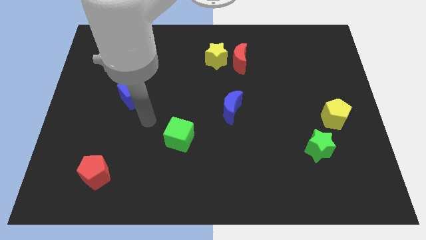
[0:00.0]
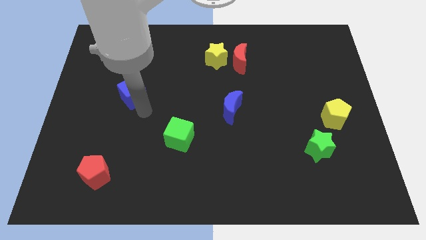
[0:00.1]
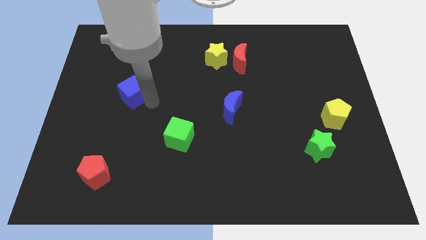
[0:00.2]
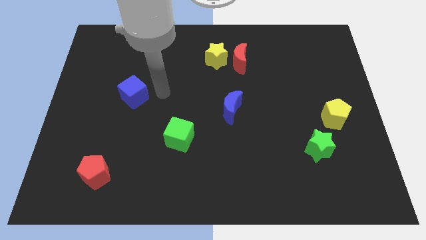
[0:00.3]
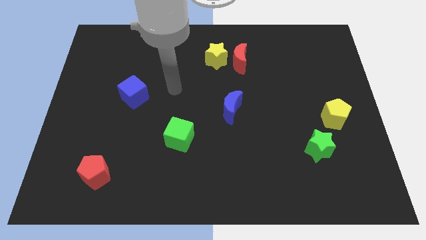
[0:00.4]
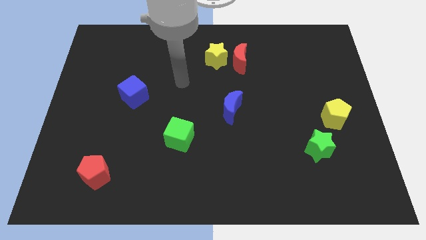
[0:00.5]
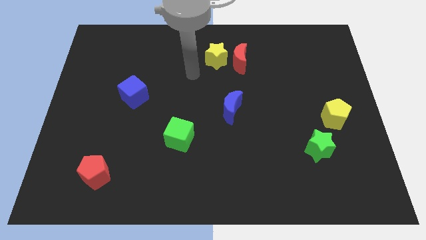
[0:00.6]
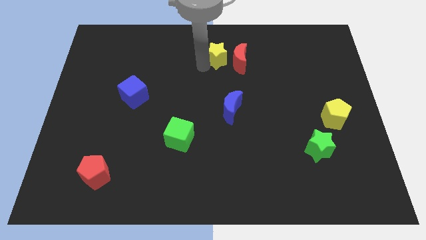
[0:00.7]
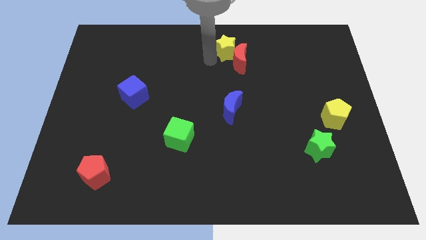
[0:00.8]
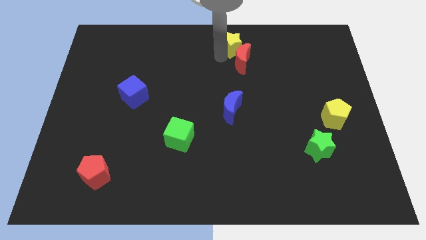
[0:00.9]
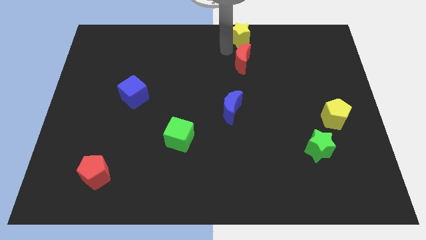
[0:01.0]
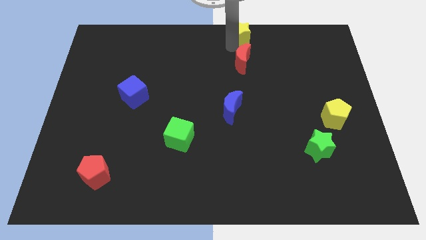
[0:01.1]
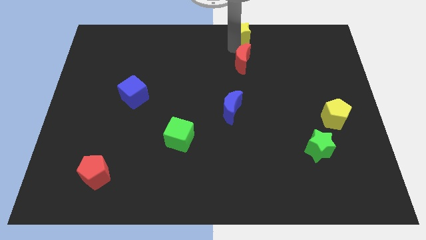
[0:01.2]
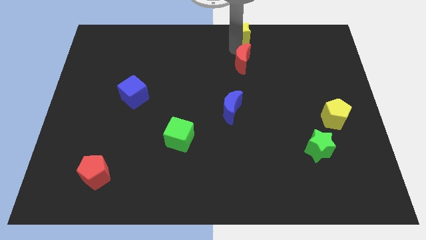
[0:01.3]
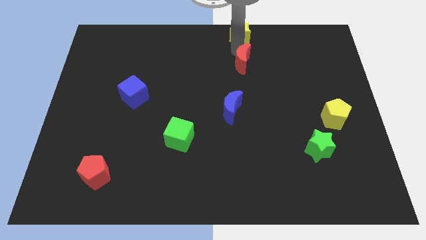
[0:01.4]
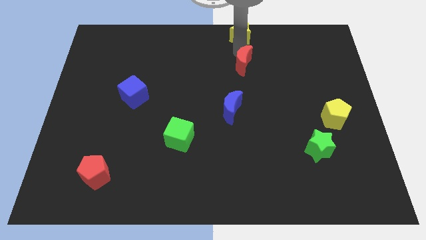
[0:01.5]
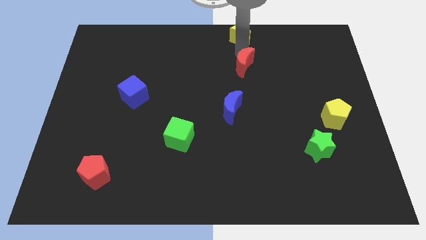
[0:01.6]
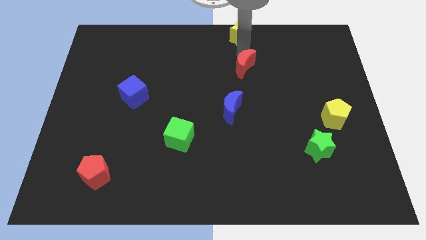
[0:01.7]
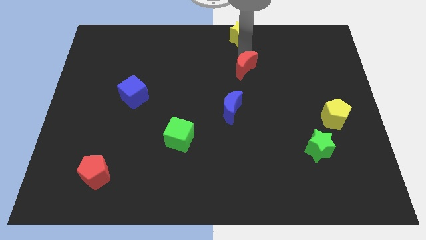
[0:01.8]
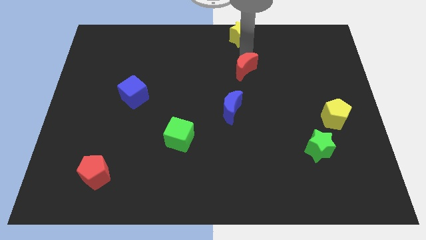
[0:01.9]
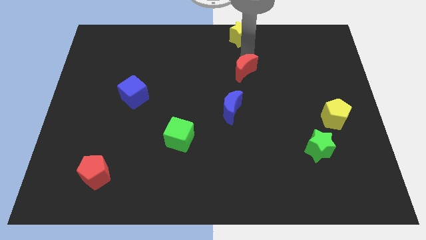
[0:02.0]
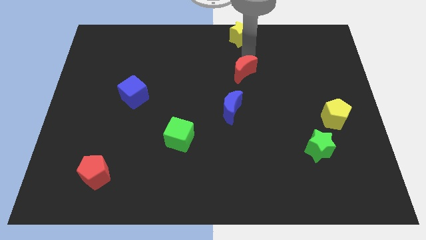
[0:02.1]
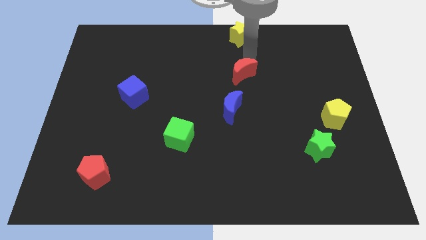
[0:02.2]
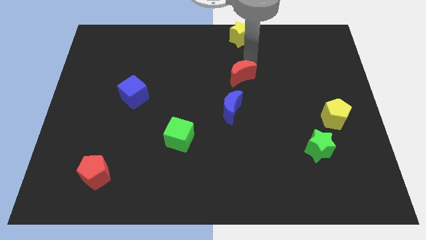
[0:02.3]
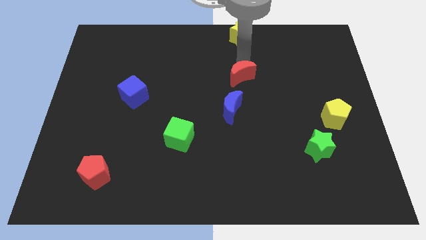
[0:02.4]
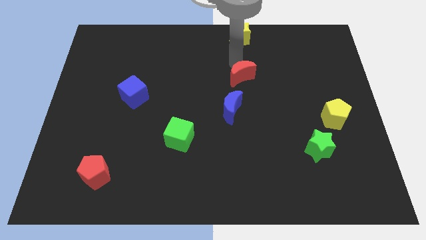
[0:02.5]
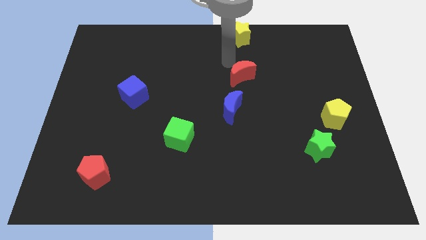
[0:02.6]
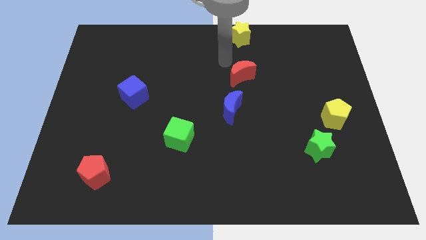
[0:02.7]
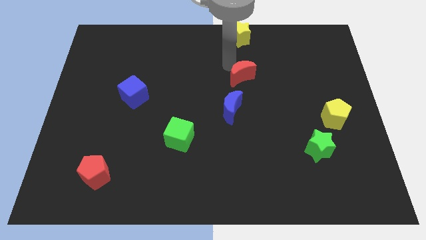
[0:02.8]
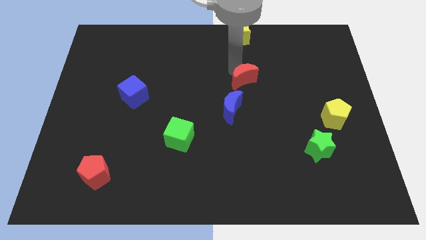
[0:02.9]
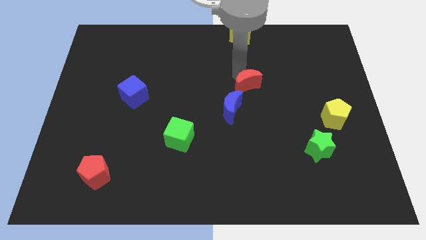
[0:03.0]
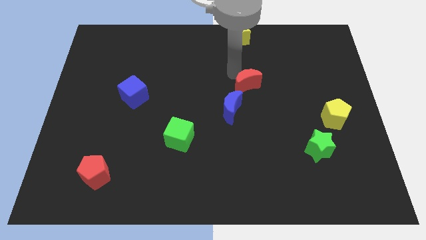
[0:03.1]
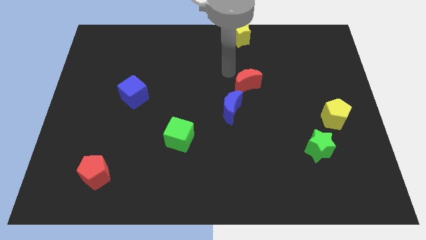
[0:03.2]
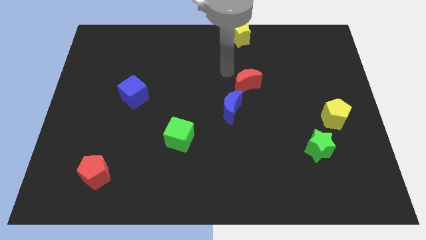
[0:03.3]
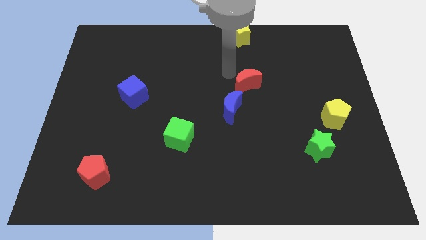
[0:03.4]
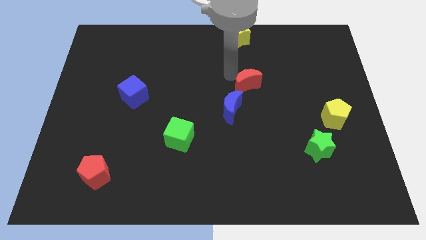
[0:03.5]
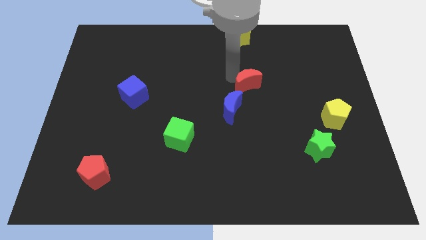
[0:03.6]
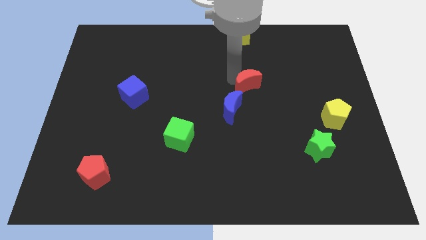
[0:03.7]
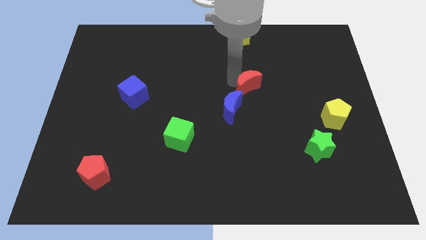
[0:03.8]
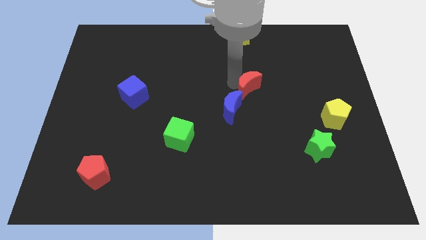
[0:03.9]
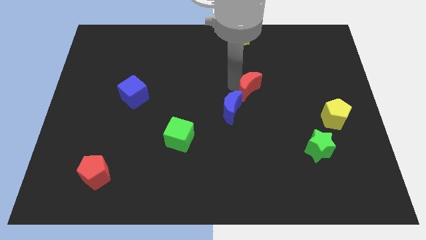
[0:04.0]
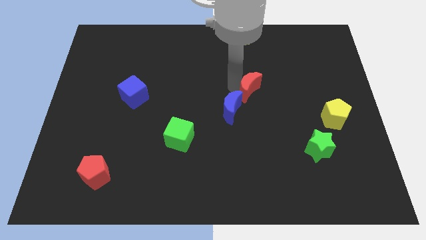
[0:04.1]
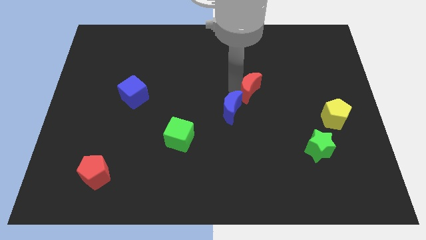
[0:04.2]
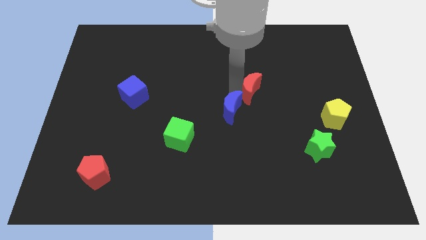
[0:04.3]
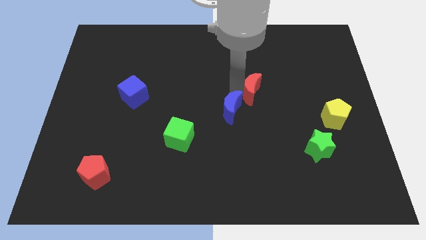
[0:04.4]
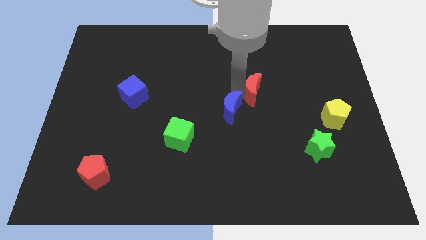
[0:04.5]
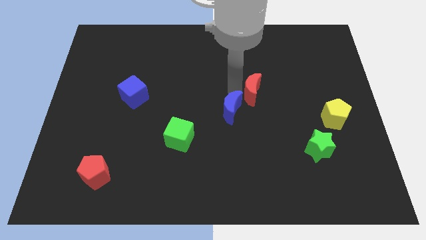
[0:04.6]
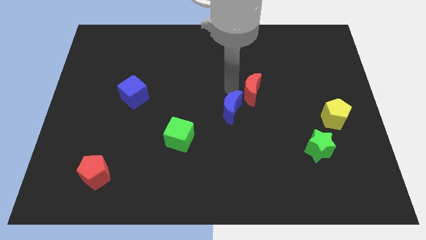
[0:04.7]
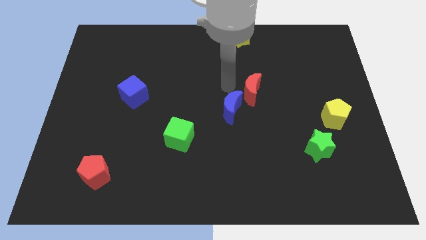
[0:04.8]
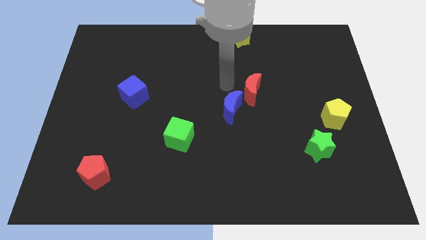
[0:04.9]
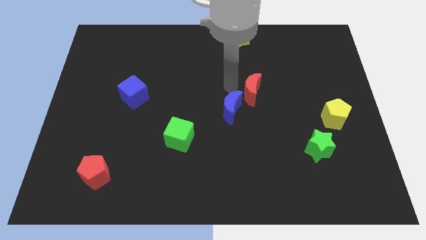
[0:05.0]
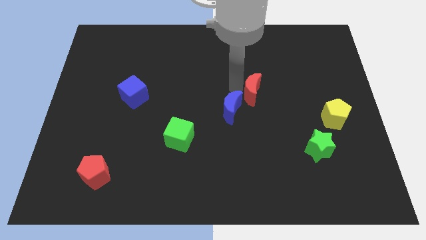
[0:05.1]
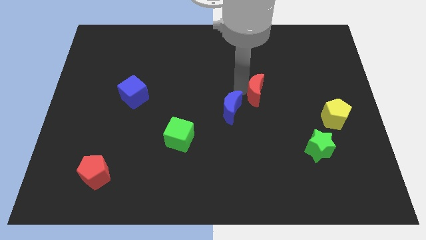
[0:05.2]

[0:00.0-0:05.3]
move the red moon right of the blue moon

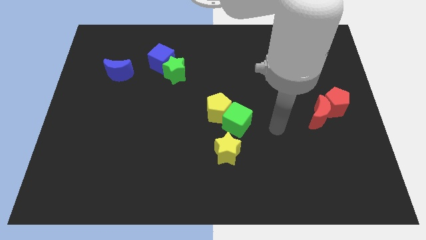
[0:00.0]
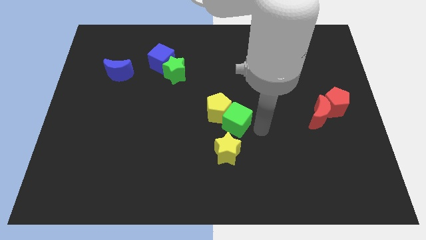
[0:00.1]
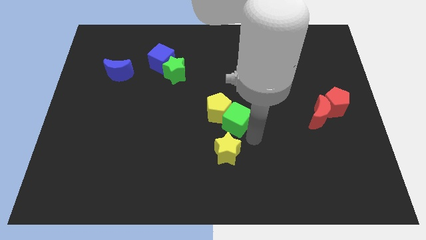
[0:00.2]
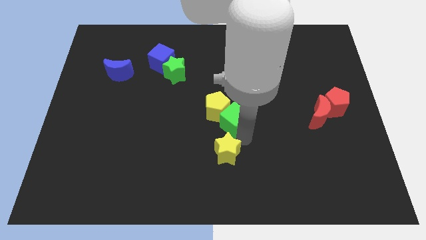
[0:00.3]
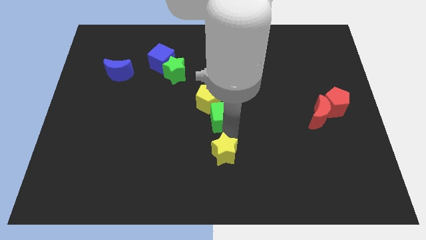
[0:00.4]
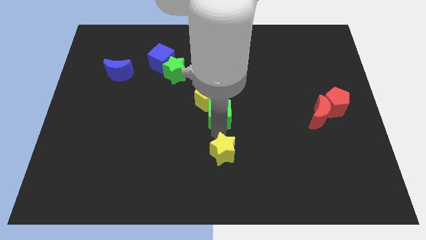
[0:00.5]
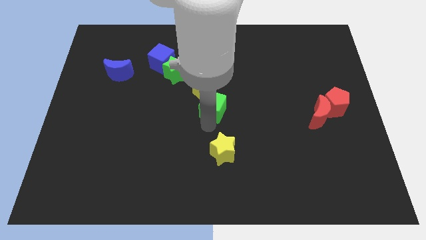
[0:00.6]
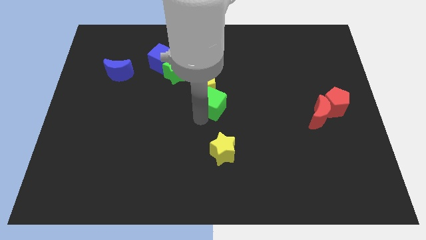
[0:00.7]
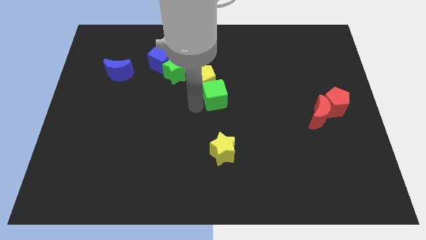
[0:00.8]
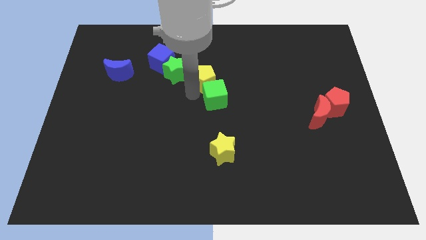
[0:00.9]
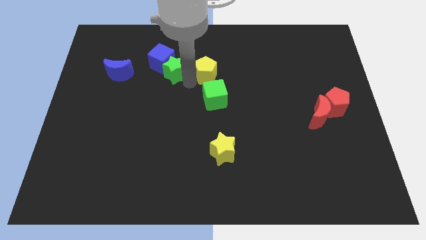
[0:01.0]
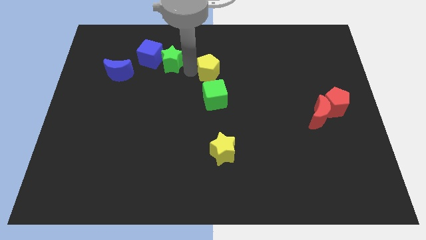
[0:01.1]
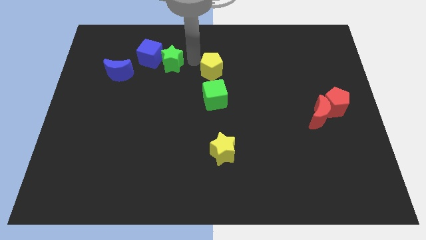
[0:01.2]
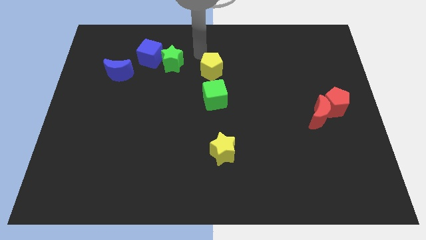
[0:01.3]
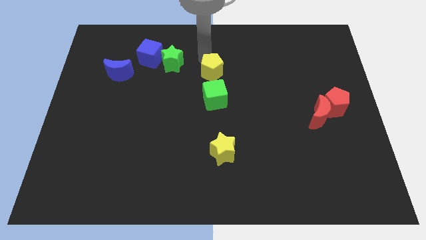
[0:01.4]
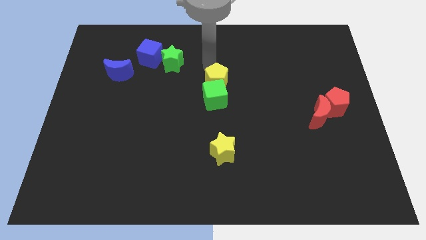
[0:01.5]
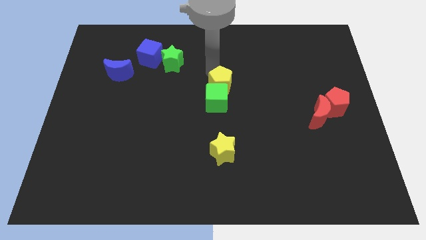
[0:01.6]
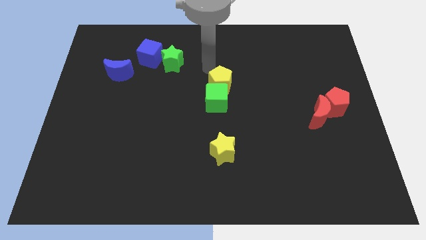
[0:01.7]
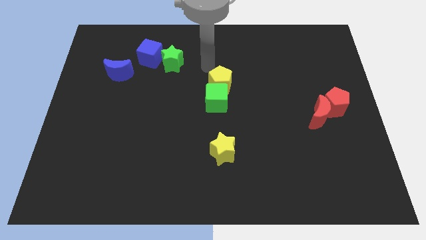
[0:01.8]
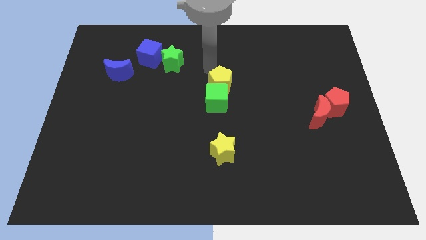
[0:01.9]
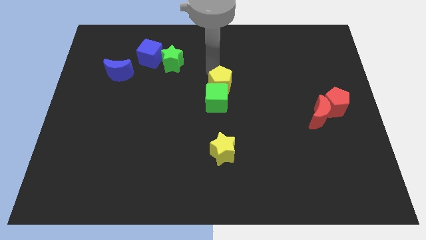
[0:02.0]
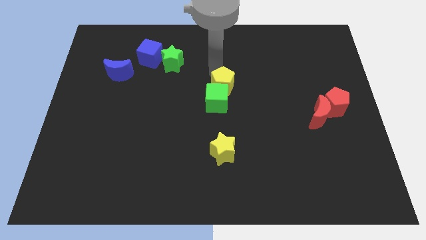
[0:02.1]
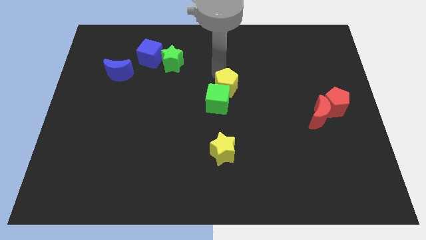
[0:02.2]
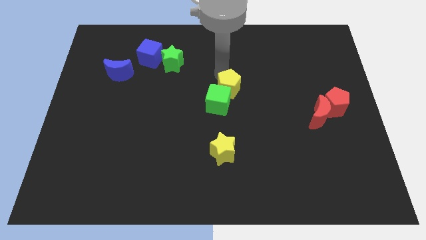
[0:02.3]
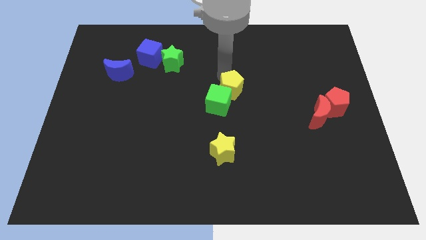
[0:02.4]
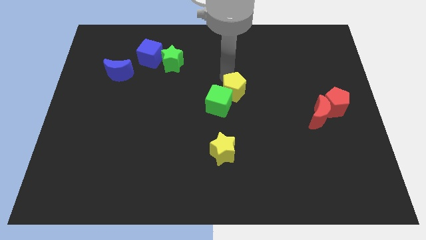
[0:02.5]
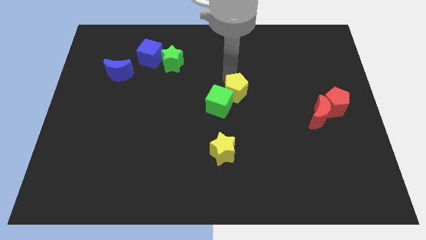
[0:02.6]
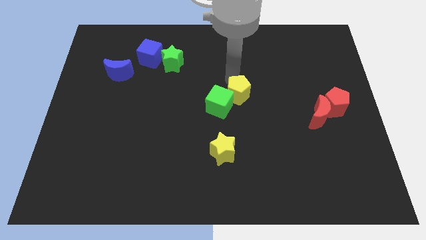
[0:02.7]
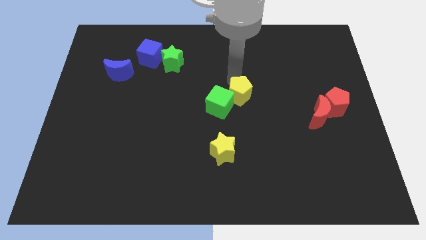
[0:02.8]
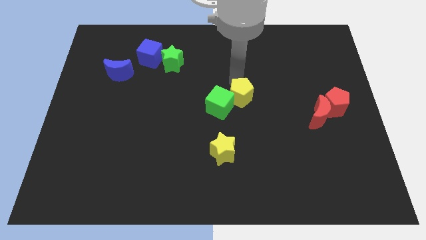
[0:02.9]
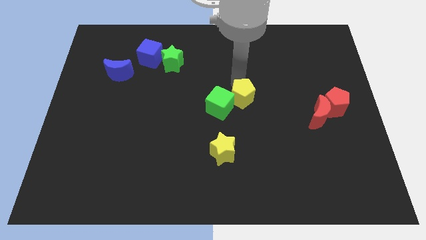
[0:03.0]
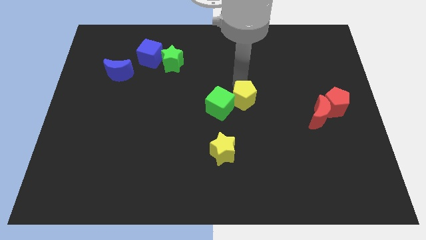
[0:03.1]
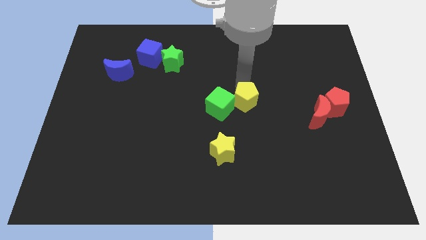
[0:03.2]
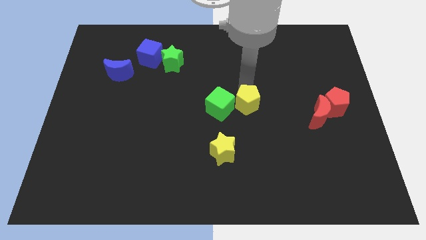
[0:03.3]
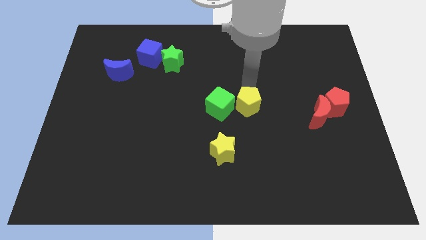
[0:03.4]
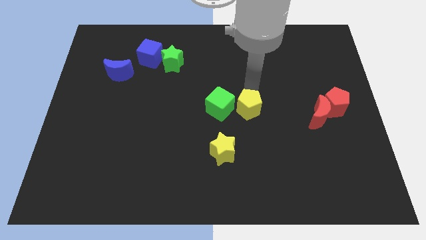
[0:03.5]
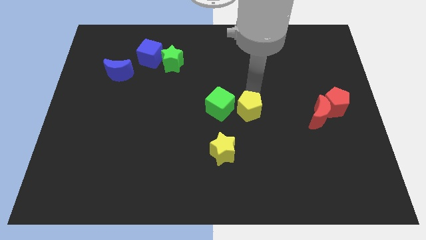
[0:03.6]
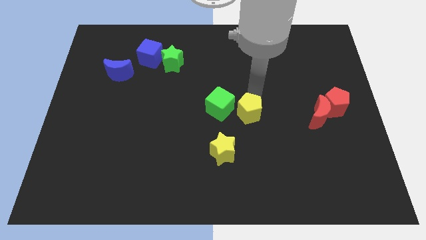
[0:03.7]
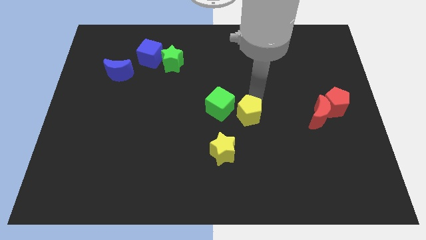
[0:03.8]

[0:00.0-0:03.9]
slide the yellow pentagon diagonally up and to the right of the yellow star
